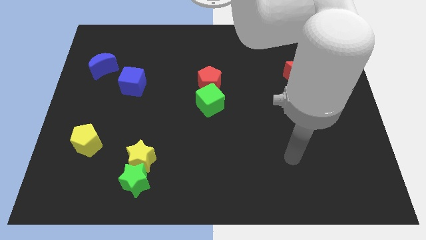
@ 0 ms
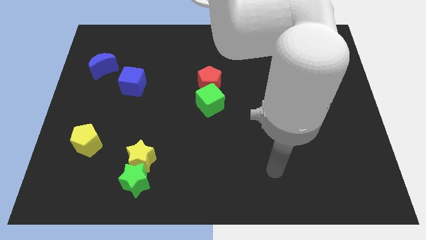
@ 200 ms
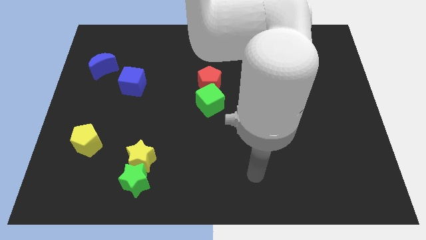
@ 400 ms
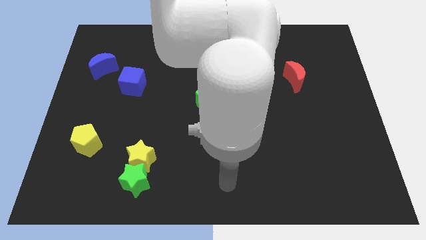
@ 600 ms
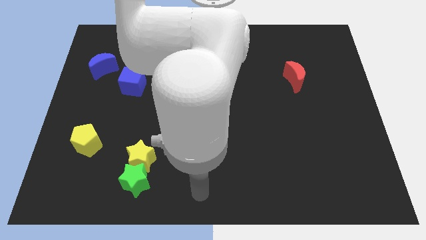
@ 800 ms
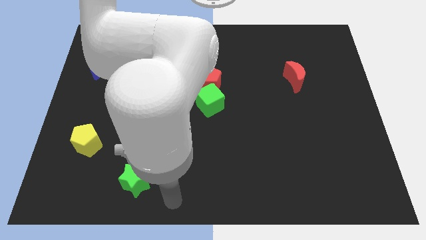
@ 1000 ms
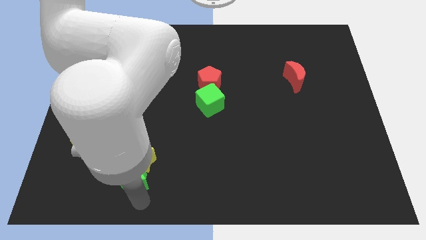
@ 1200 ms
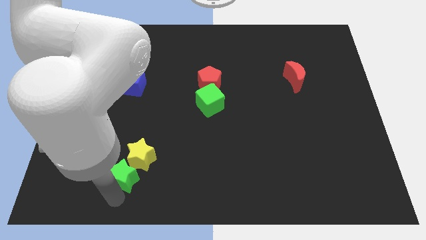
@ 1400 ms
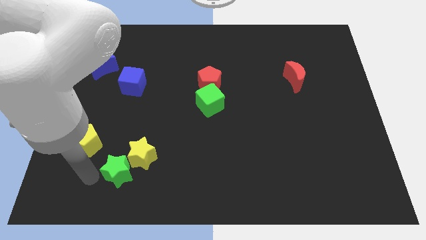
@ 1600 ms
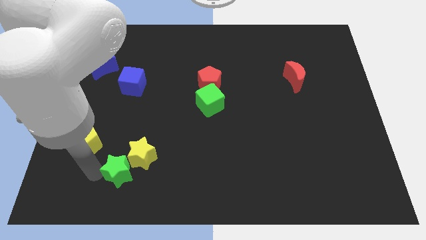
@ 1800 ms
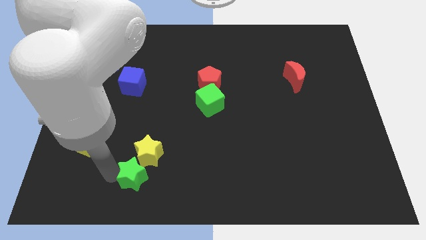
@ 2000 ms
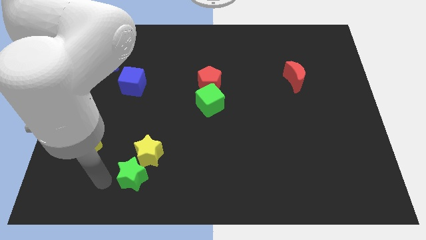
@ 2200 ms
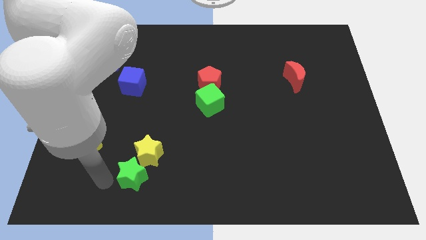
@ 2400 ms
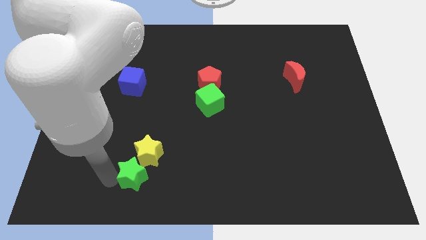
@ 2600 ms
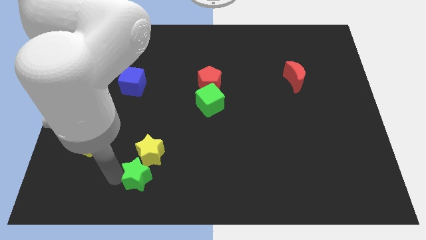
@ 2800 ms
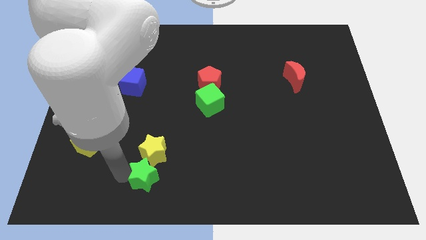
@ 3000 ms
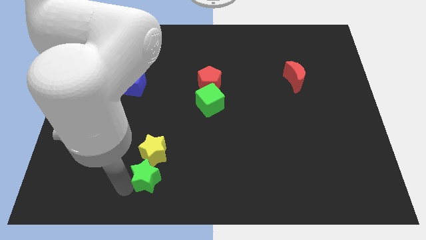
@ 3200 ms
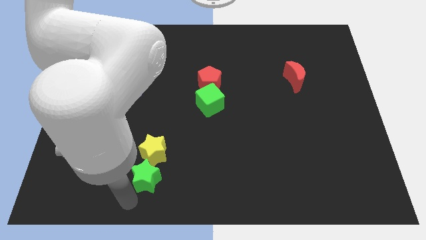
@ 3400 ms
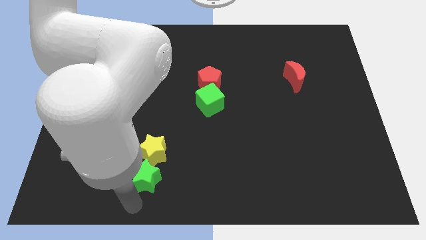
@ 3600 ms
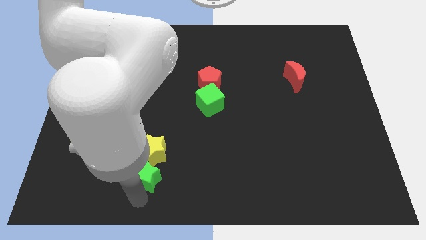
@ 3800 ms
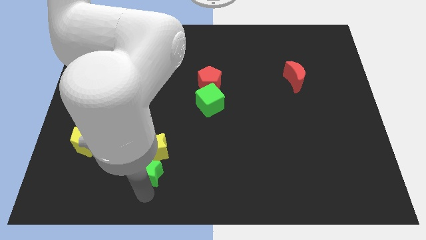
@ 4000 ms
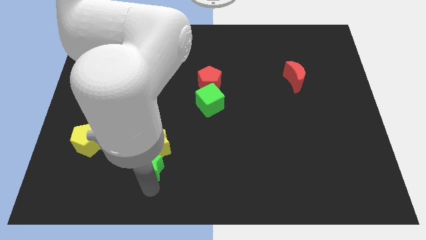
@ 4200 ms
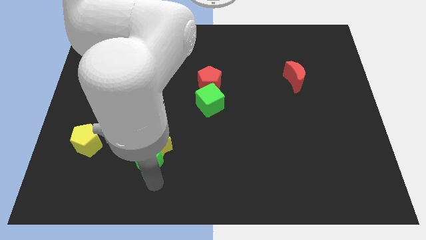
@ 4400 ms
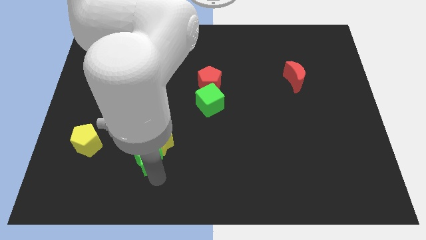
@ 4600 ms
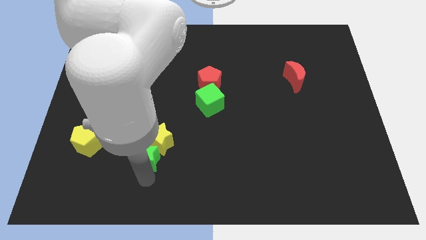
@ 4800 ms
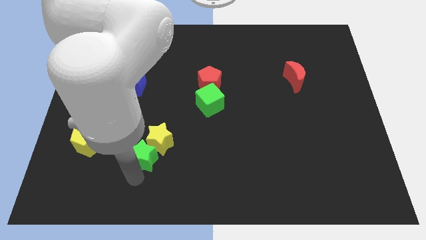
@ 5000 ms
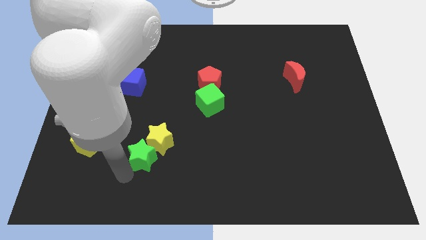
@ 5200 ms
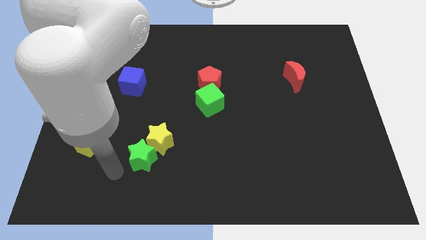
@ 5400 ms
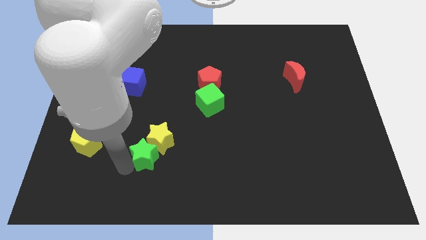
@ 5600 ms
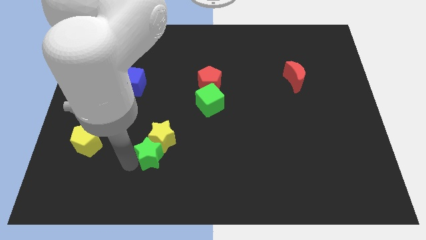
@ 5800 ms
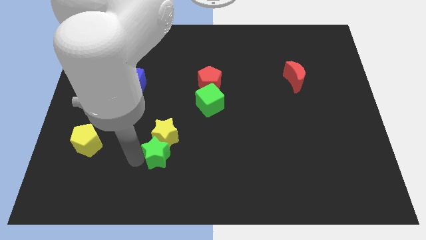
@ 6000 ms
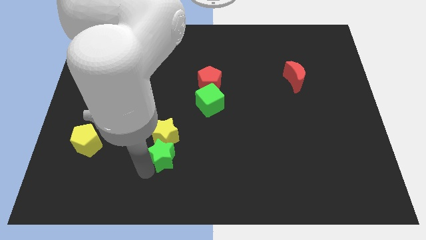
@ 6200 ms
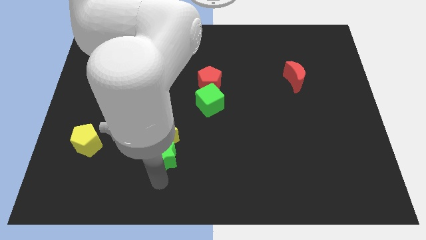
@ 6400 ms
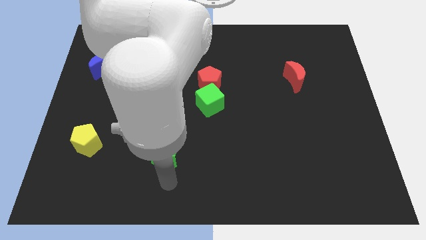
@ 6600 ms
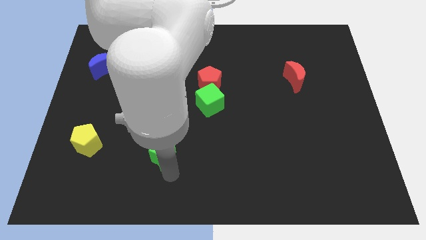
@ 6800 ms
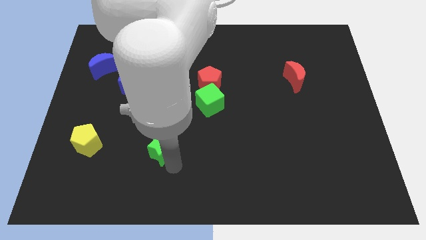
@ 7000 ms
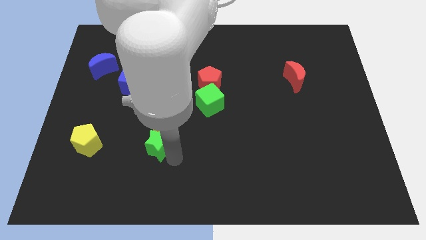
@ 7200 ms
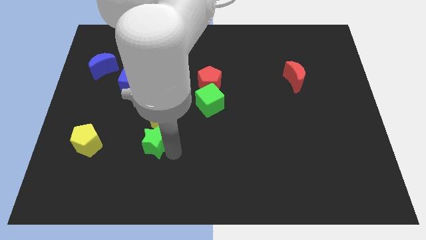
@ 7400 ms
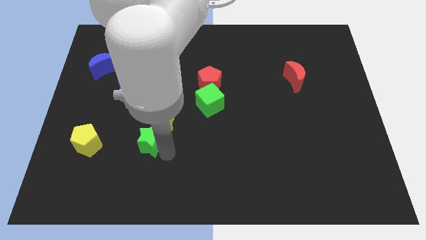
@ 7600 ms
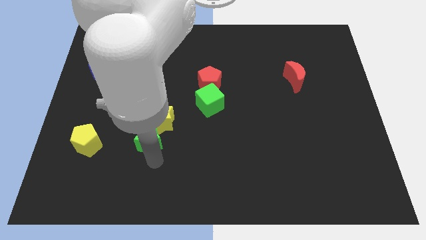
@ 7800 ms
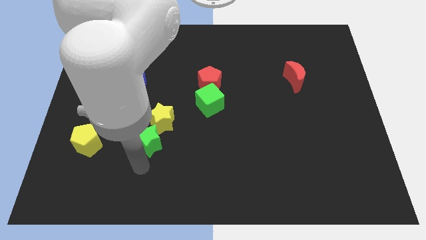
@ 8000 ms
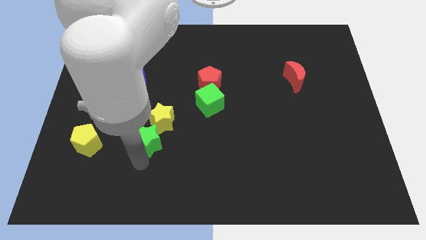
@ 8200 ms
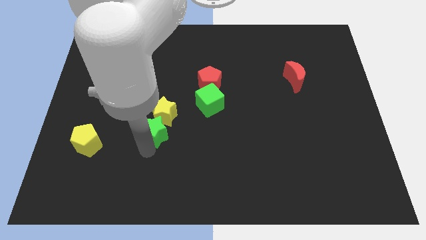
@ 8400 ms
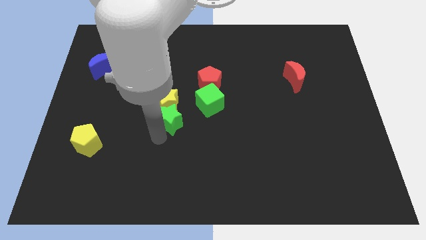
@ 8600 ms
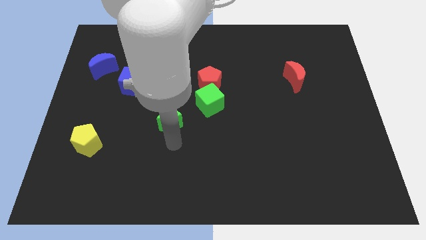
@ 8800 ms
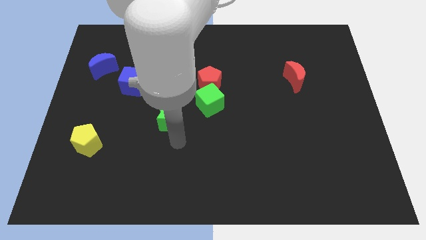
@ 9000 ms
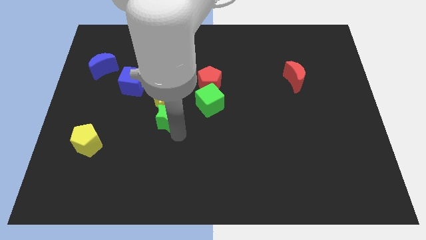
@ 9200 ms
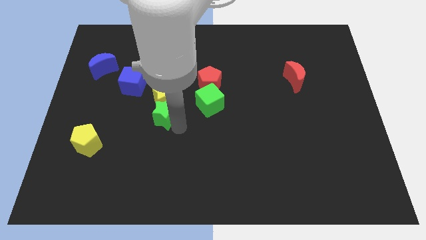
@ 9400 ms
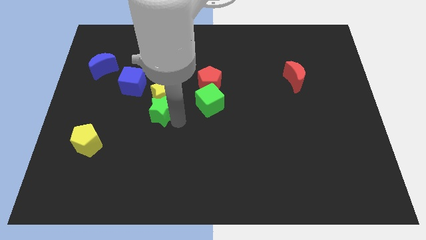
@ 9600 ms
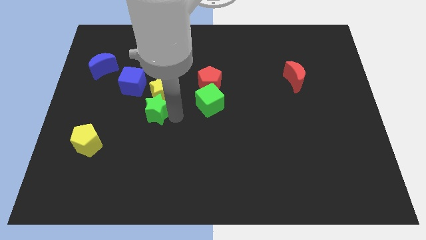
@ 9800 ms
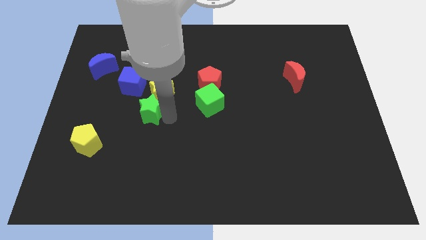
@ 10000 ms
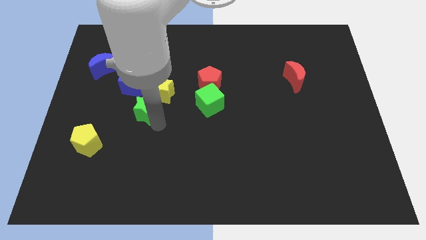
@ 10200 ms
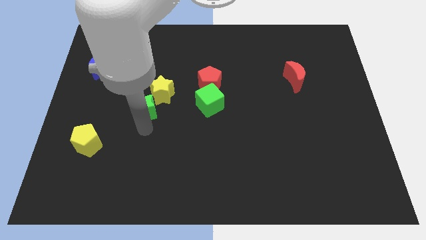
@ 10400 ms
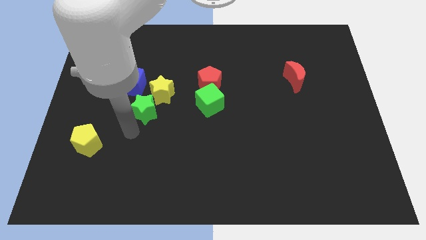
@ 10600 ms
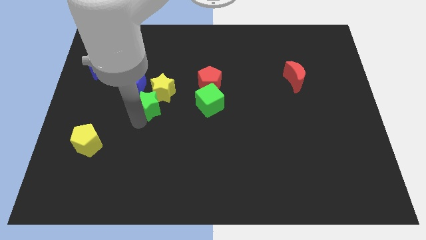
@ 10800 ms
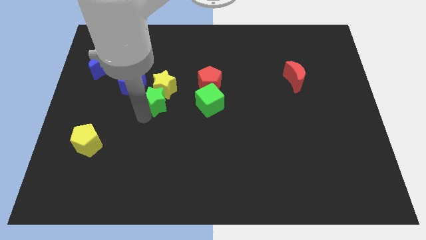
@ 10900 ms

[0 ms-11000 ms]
slide the green star up

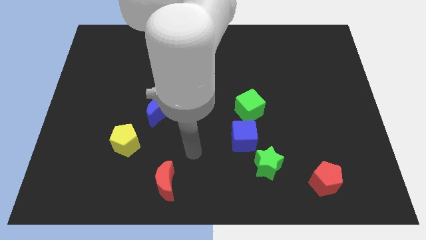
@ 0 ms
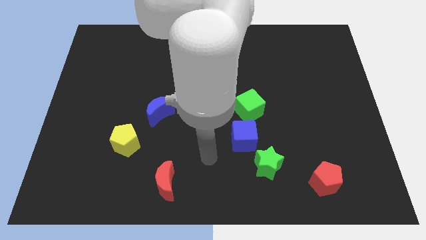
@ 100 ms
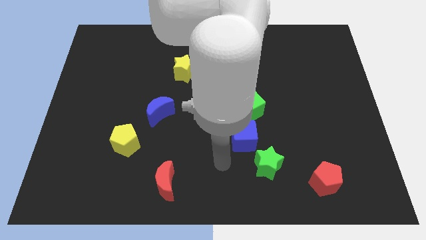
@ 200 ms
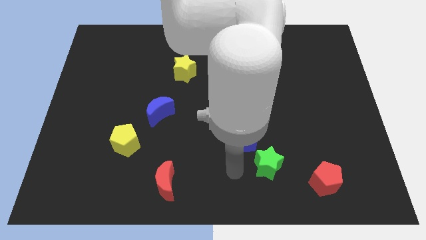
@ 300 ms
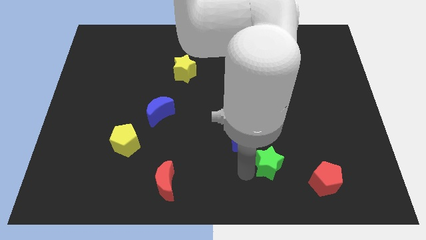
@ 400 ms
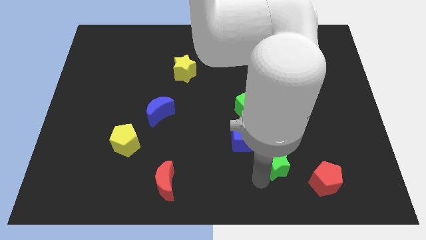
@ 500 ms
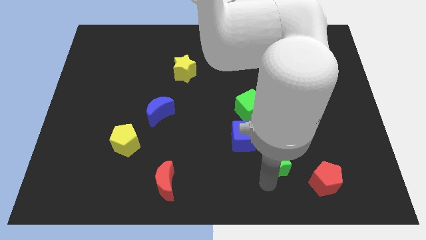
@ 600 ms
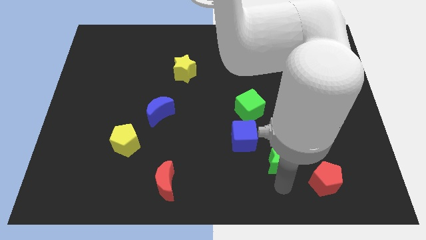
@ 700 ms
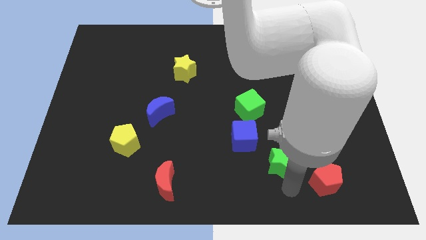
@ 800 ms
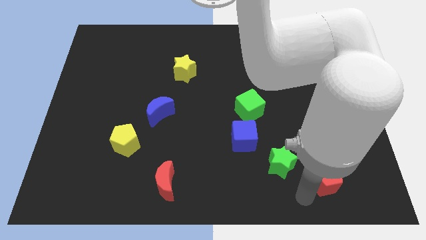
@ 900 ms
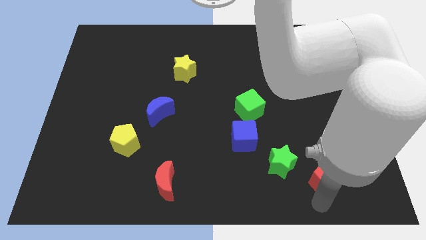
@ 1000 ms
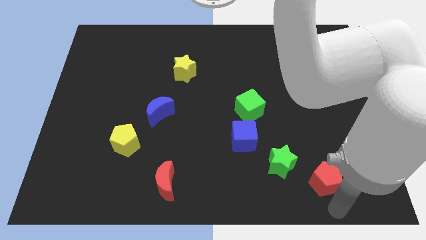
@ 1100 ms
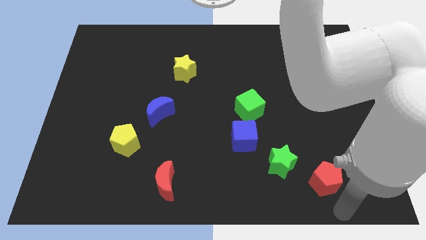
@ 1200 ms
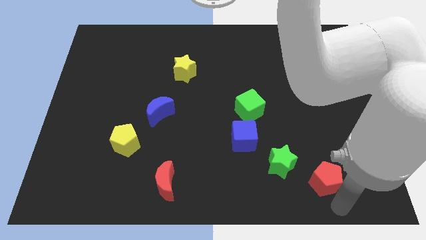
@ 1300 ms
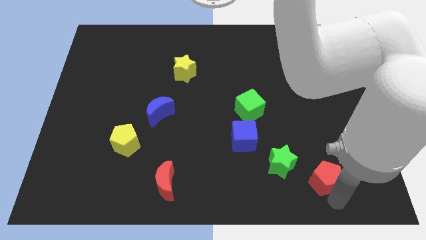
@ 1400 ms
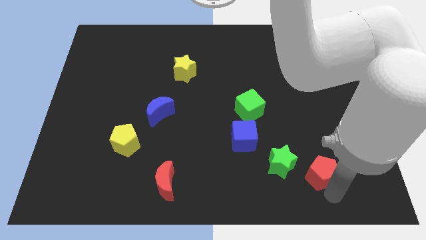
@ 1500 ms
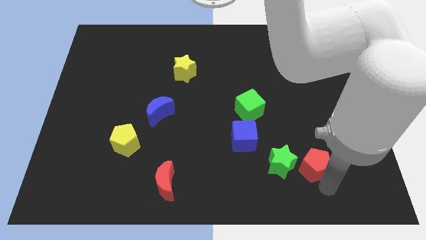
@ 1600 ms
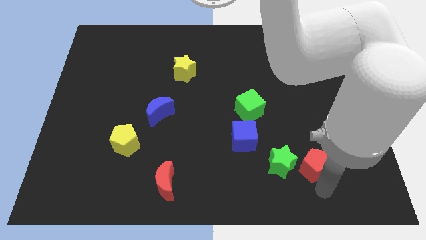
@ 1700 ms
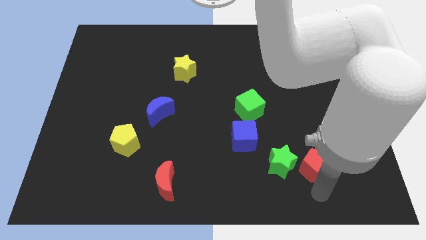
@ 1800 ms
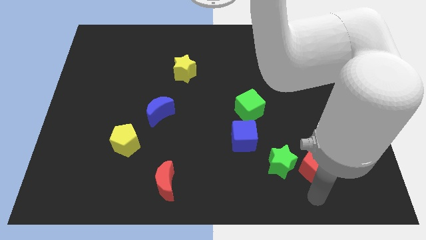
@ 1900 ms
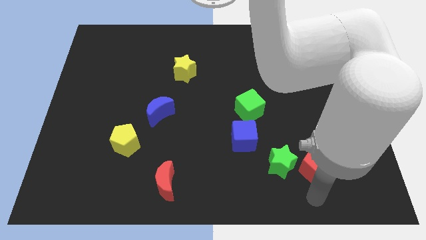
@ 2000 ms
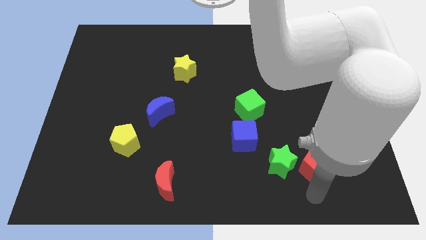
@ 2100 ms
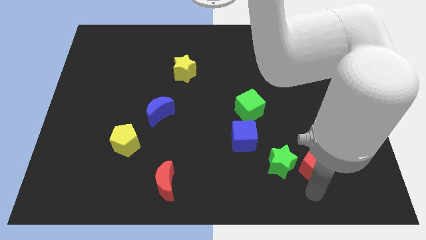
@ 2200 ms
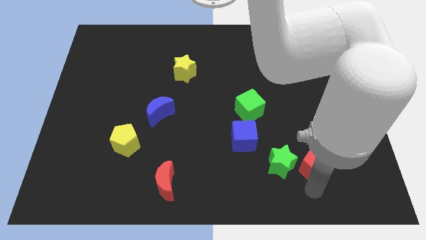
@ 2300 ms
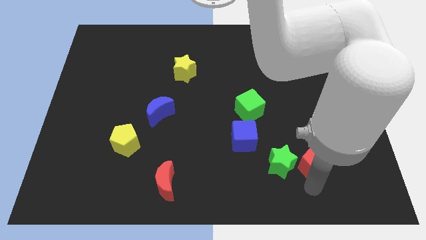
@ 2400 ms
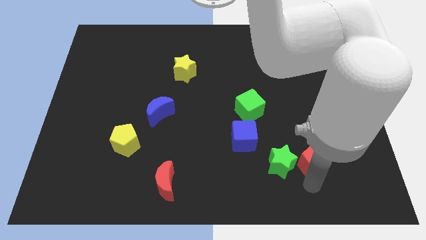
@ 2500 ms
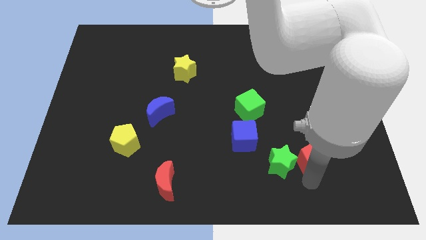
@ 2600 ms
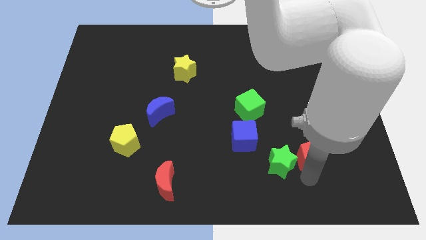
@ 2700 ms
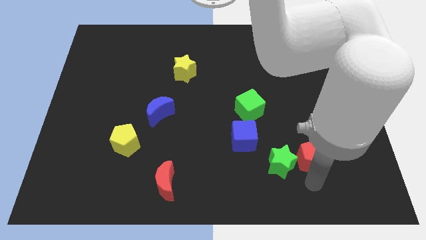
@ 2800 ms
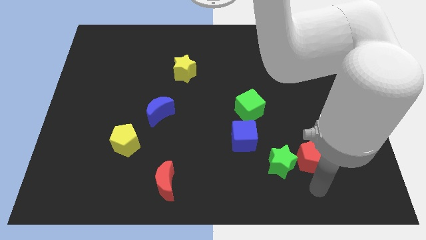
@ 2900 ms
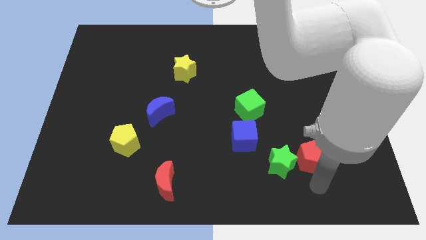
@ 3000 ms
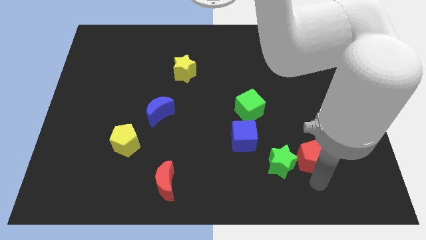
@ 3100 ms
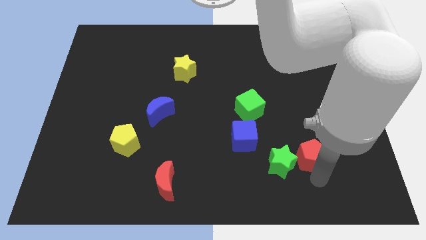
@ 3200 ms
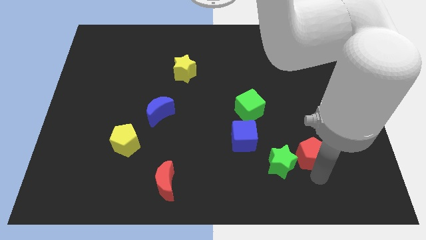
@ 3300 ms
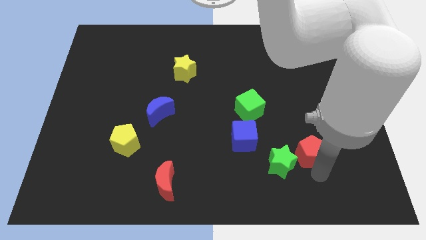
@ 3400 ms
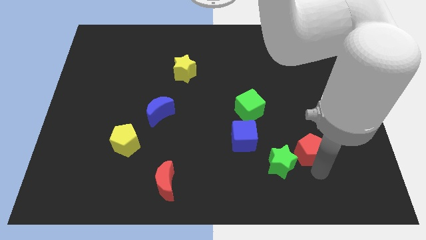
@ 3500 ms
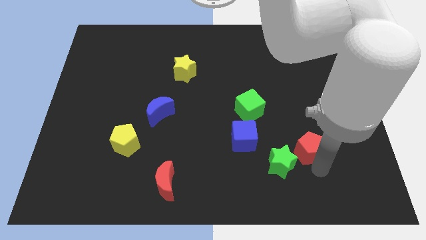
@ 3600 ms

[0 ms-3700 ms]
slightly push the red pentagon up
